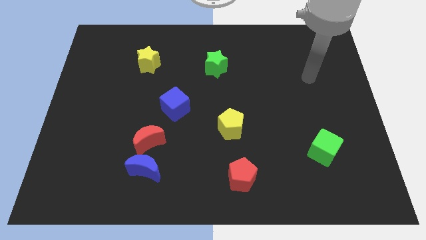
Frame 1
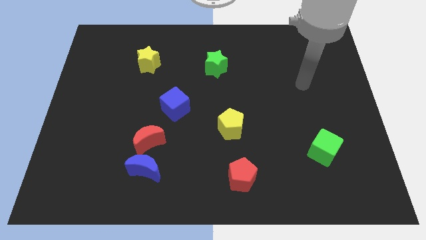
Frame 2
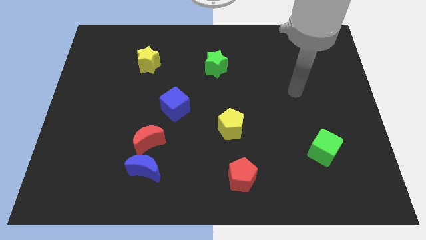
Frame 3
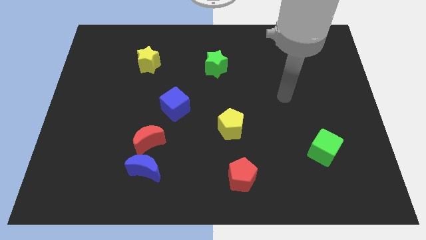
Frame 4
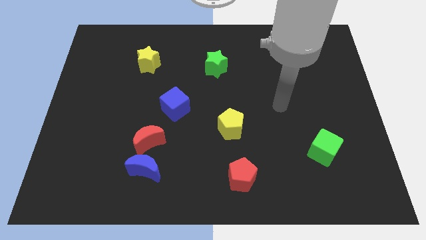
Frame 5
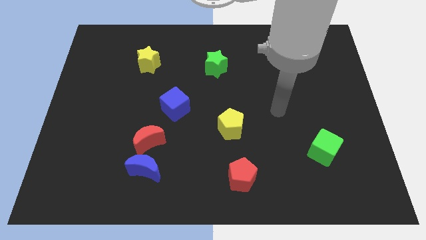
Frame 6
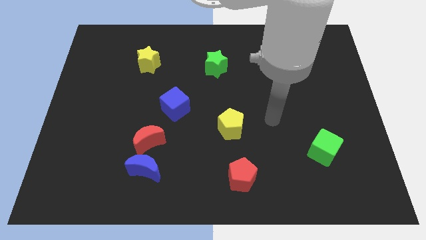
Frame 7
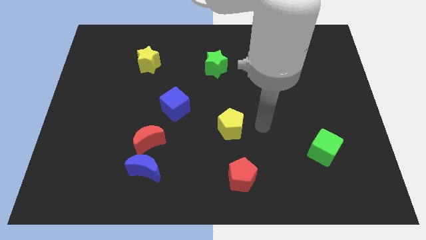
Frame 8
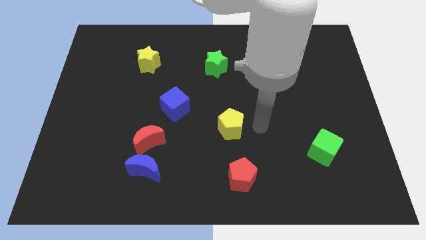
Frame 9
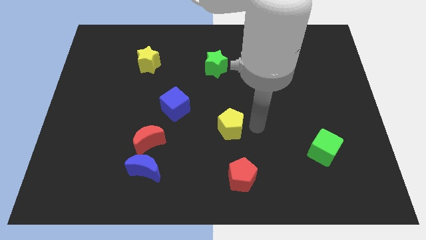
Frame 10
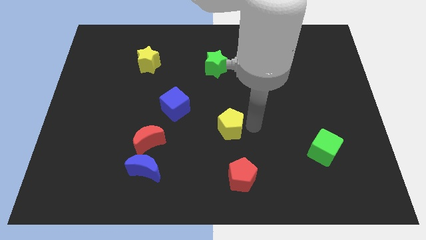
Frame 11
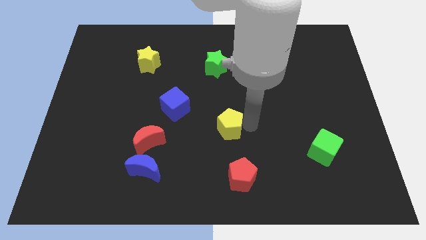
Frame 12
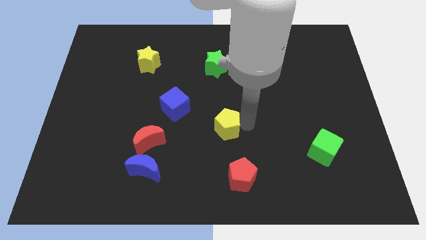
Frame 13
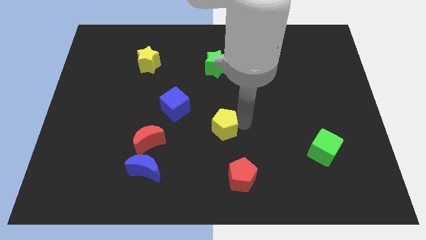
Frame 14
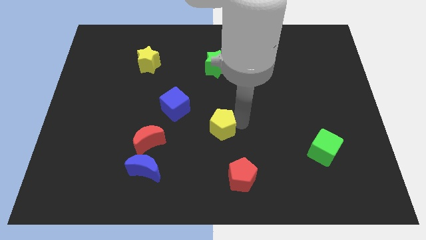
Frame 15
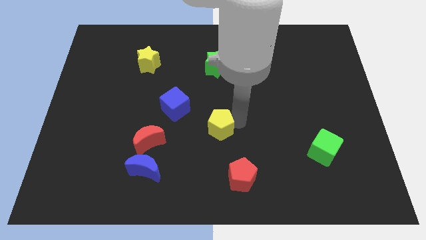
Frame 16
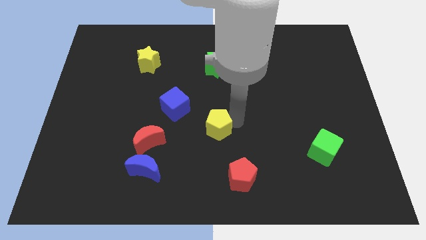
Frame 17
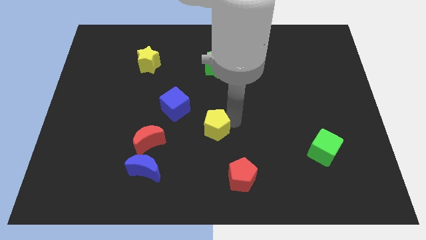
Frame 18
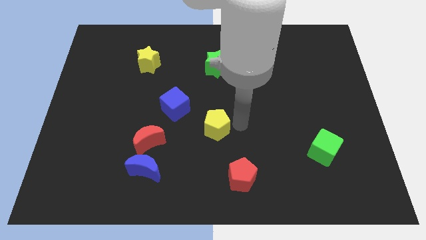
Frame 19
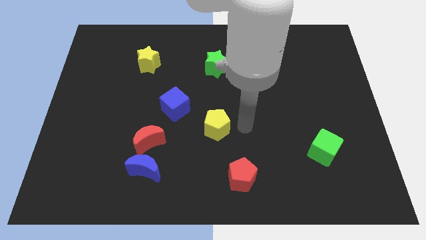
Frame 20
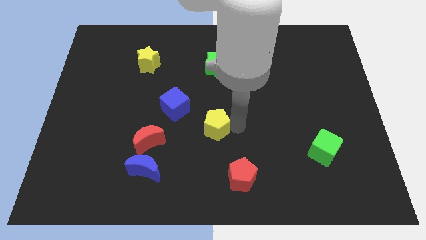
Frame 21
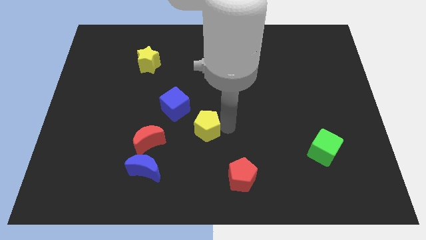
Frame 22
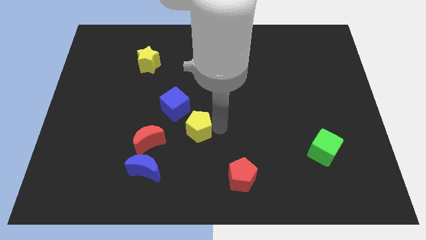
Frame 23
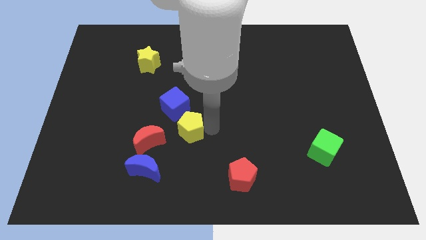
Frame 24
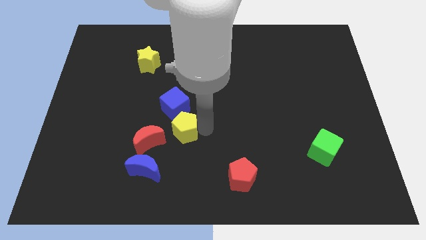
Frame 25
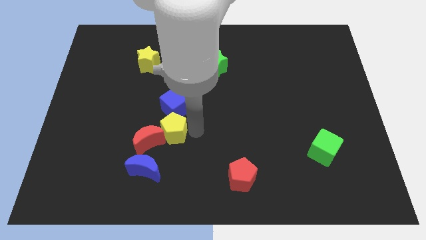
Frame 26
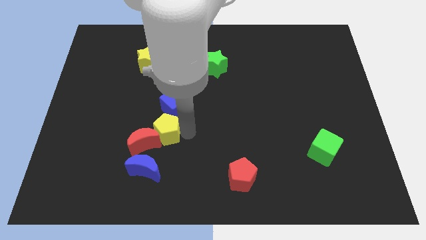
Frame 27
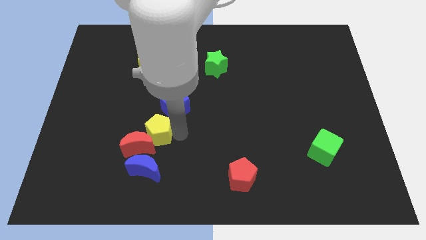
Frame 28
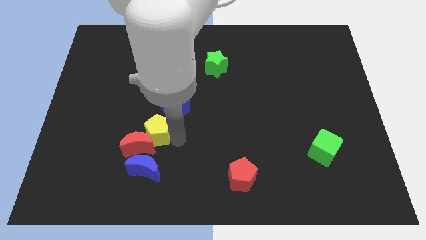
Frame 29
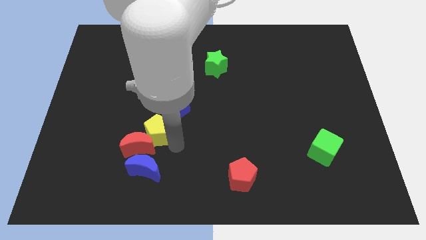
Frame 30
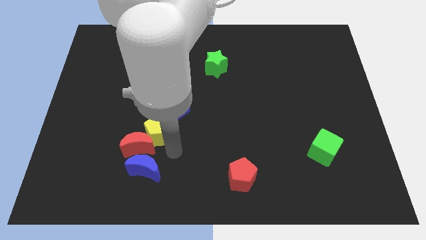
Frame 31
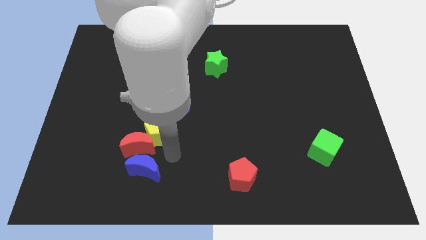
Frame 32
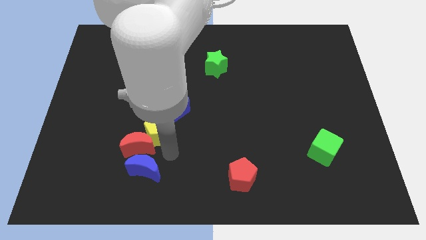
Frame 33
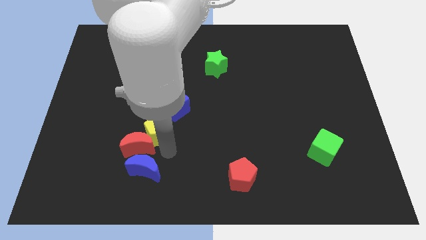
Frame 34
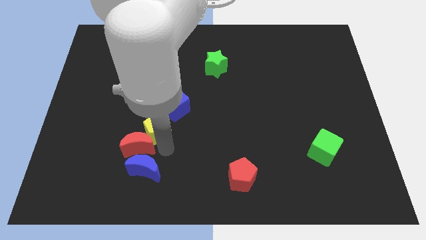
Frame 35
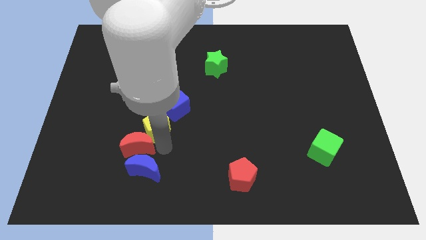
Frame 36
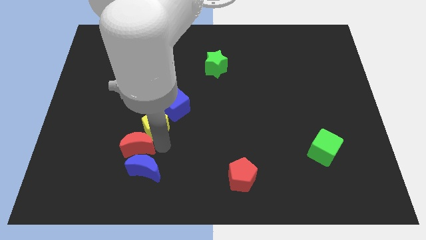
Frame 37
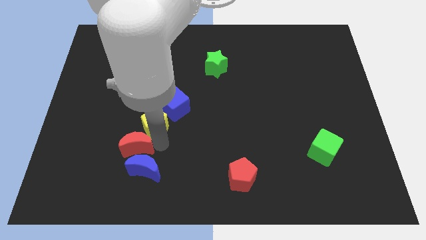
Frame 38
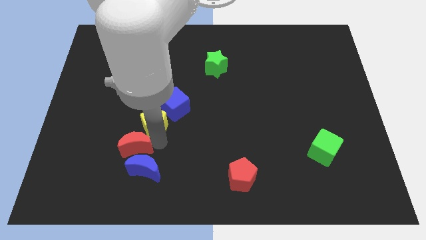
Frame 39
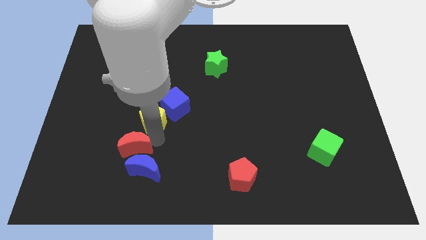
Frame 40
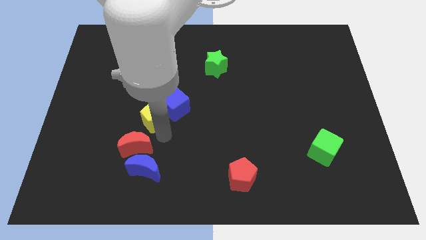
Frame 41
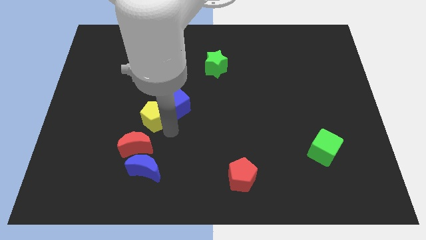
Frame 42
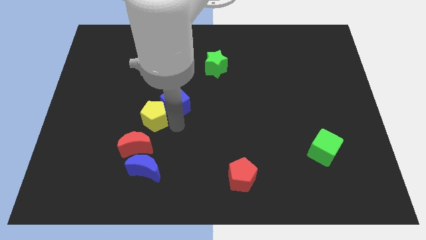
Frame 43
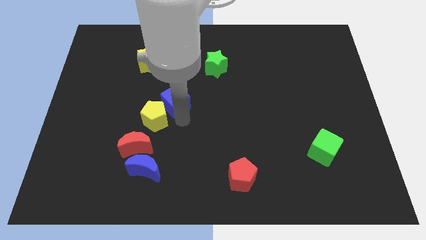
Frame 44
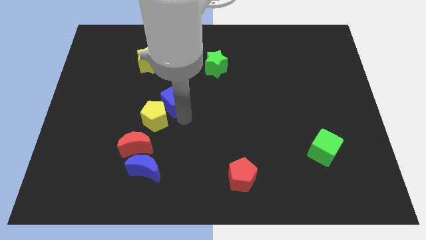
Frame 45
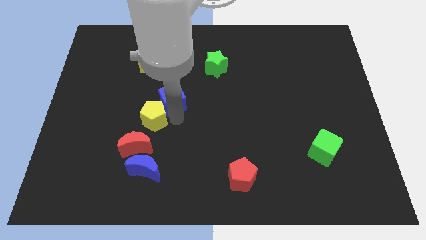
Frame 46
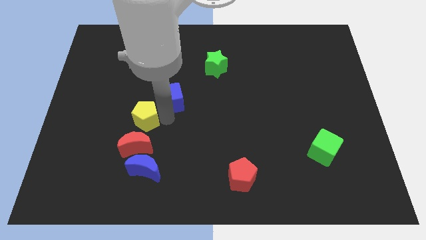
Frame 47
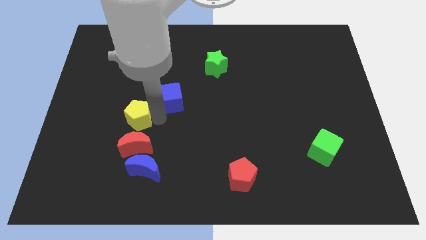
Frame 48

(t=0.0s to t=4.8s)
move the yellow pentagon left

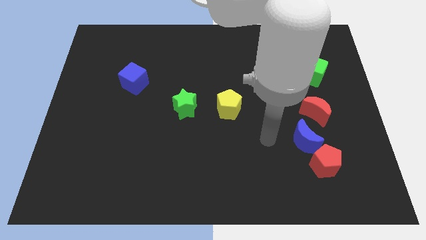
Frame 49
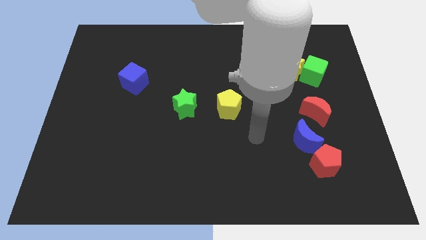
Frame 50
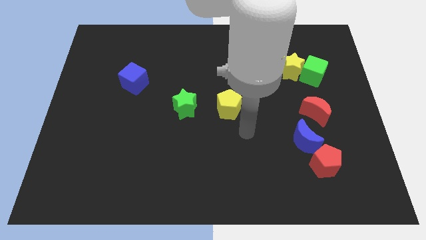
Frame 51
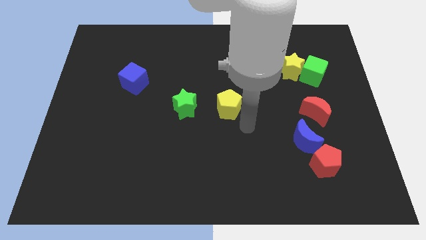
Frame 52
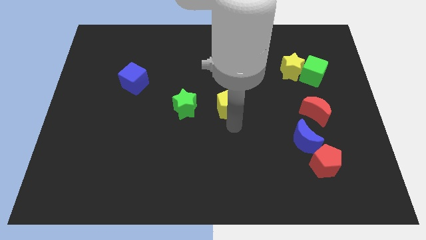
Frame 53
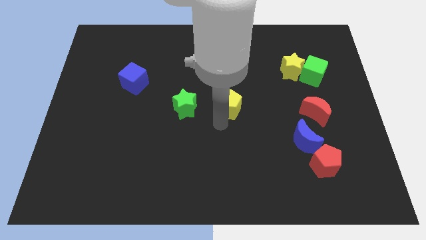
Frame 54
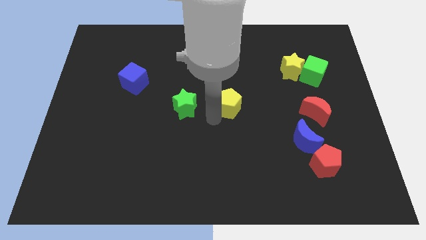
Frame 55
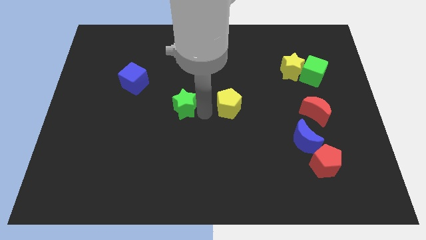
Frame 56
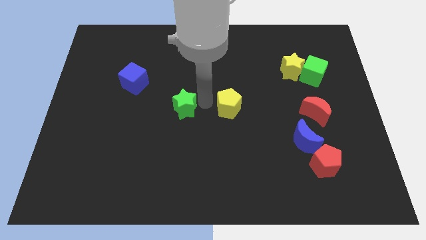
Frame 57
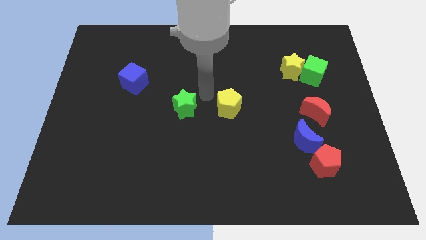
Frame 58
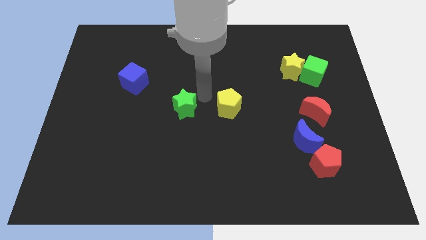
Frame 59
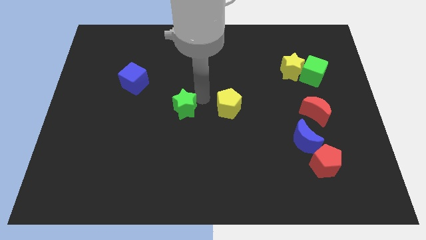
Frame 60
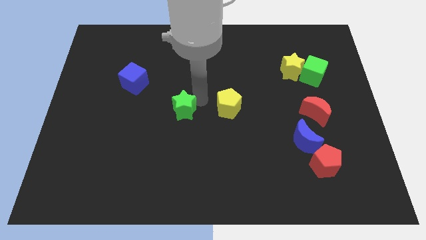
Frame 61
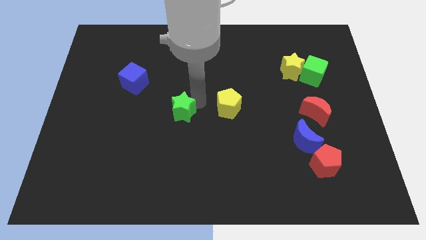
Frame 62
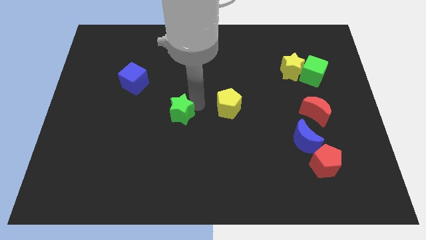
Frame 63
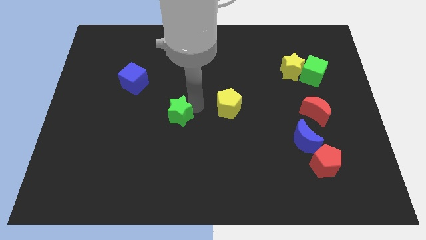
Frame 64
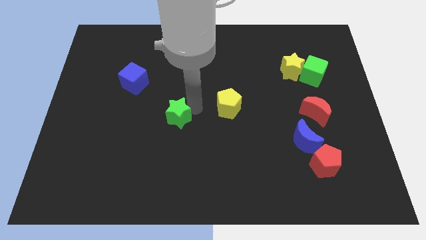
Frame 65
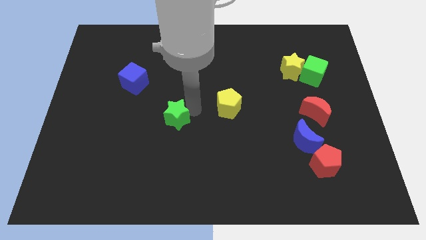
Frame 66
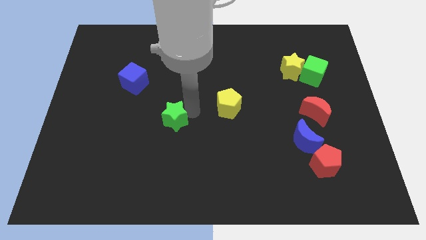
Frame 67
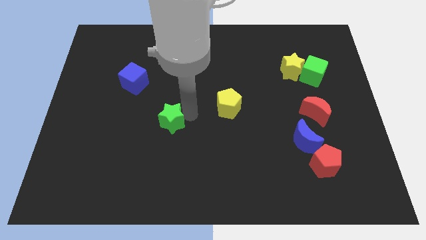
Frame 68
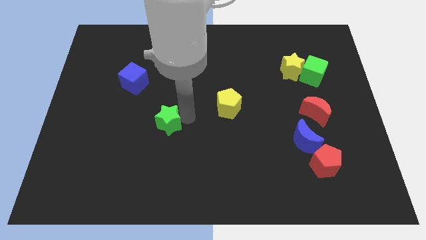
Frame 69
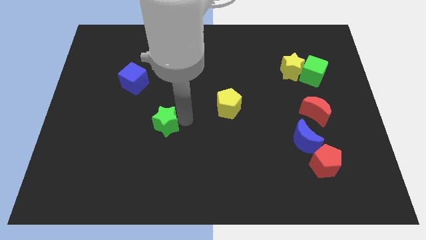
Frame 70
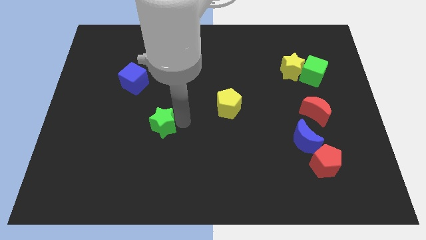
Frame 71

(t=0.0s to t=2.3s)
move the green star downwards and to the left diagonally somewhat

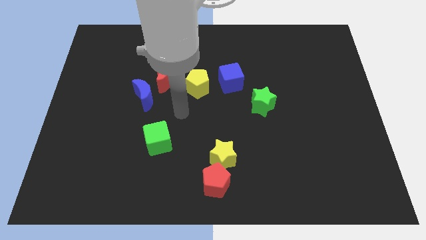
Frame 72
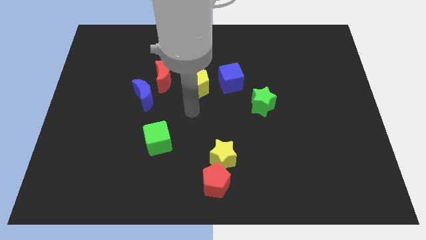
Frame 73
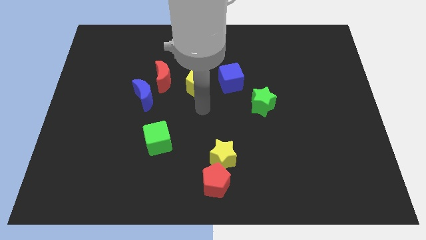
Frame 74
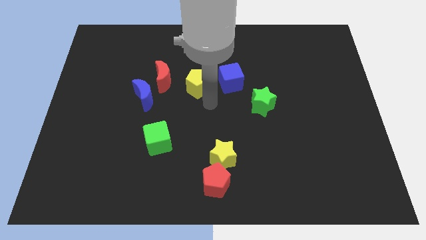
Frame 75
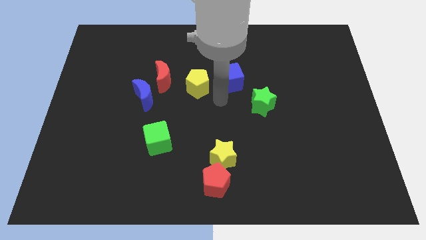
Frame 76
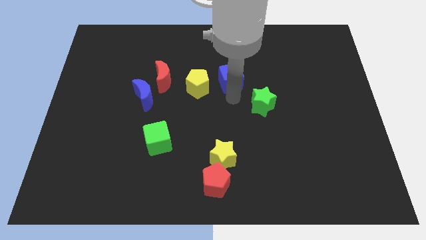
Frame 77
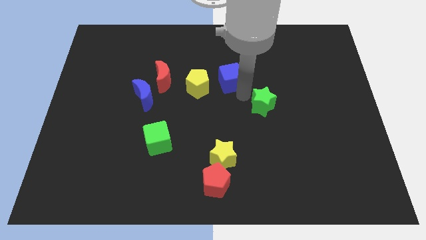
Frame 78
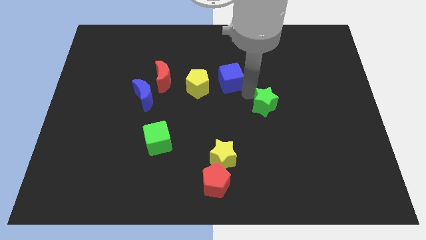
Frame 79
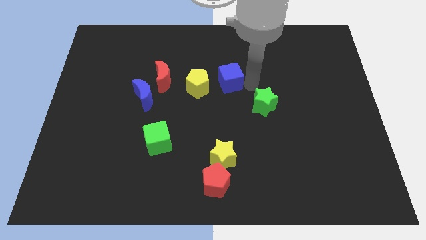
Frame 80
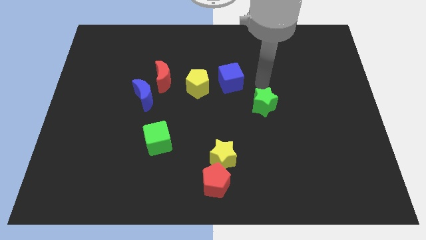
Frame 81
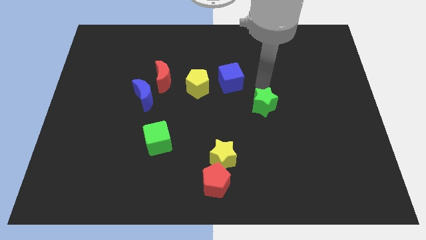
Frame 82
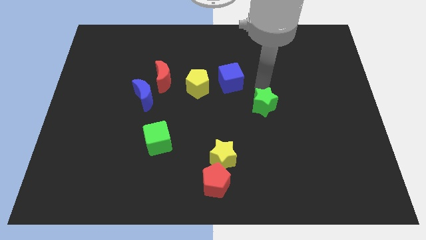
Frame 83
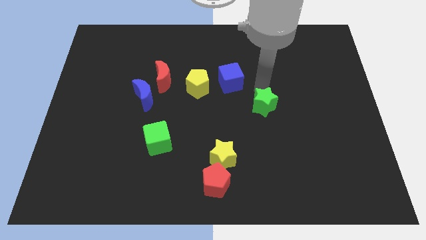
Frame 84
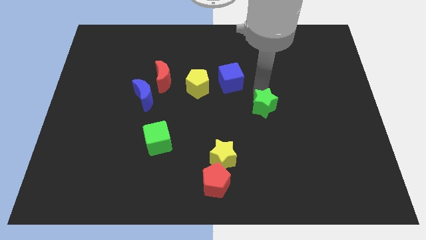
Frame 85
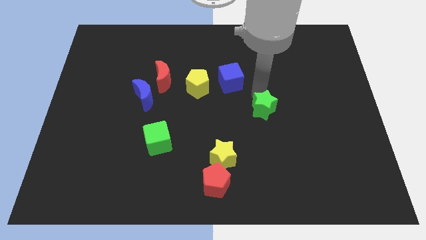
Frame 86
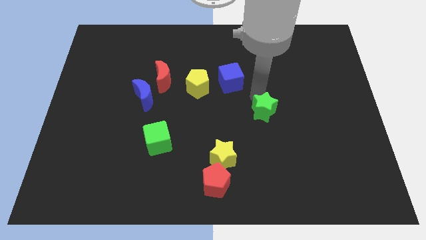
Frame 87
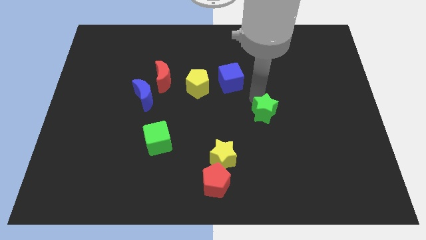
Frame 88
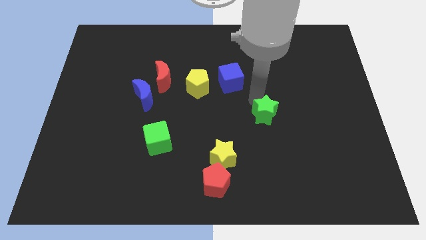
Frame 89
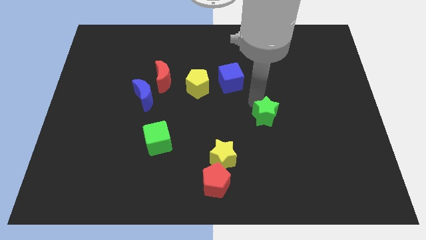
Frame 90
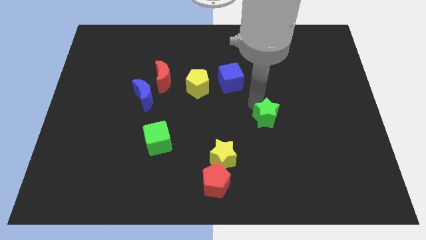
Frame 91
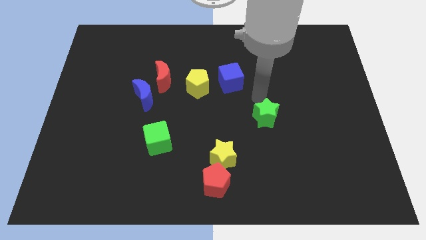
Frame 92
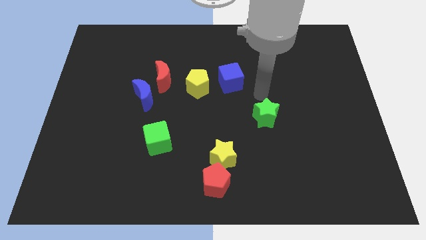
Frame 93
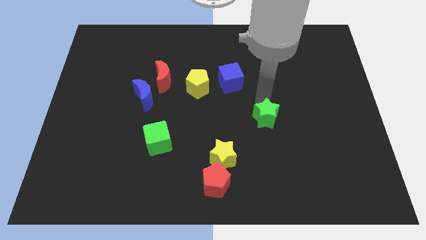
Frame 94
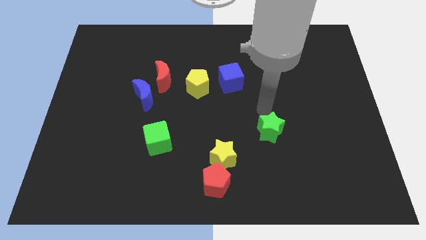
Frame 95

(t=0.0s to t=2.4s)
slide the green star down a little
